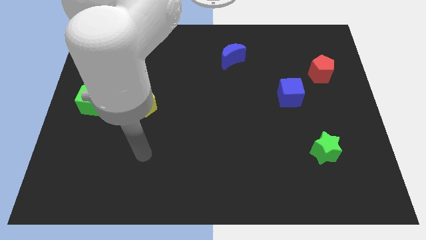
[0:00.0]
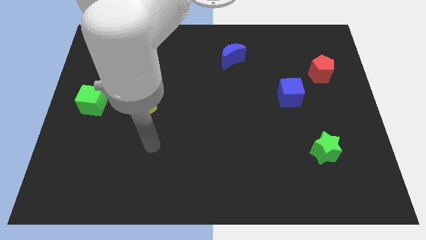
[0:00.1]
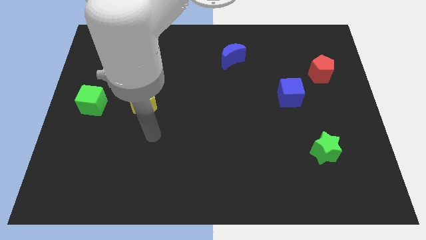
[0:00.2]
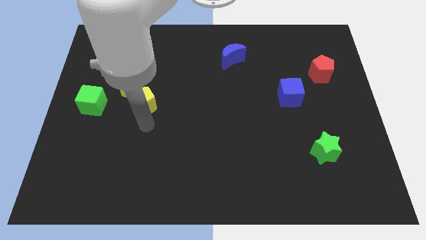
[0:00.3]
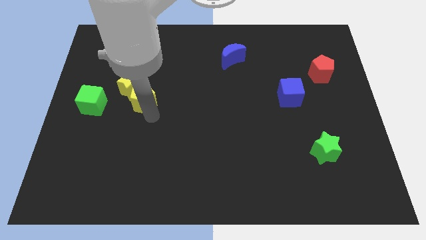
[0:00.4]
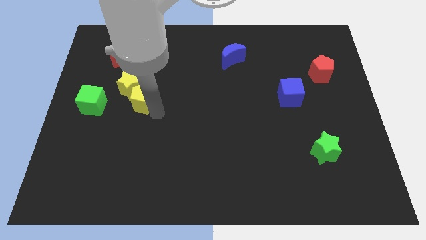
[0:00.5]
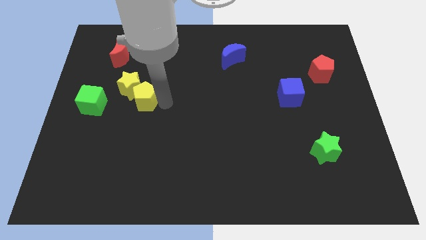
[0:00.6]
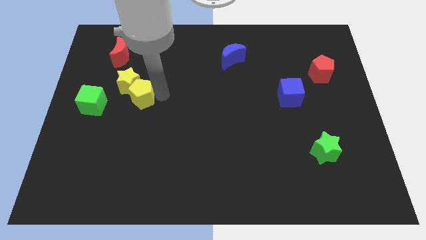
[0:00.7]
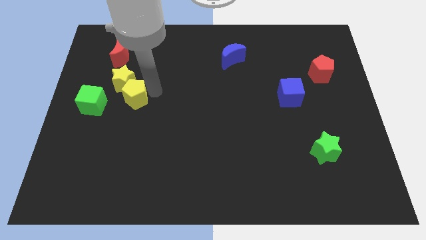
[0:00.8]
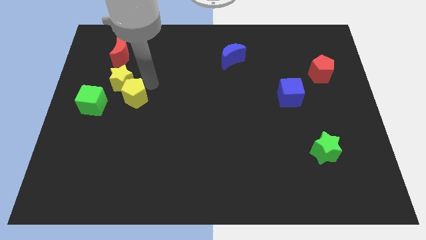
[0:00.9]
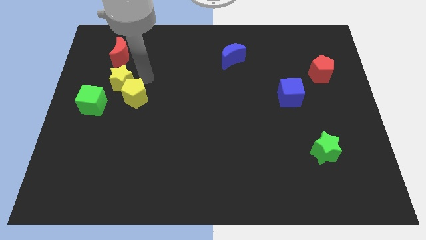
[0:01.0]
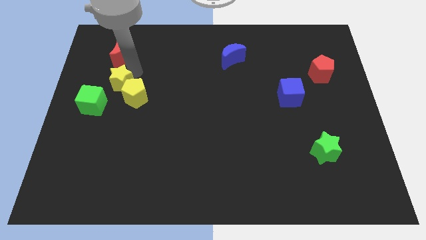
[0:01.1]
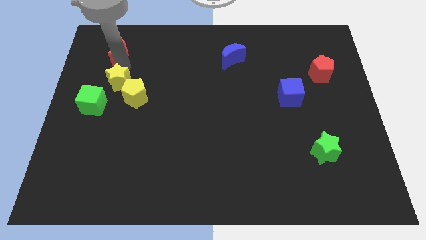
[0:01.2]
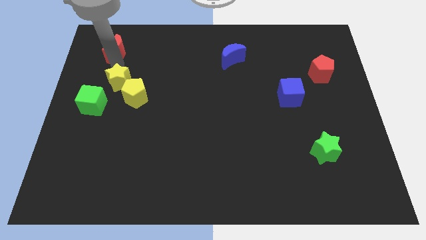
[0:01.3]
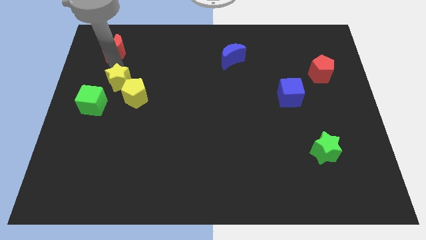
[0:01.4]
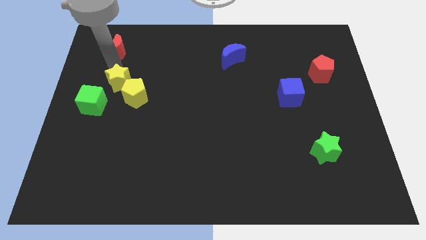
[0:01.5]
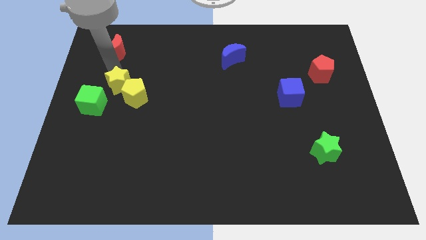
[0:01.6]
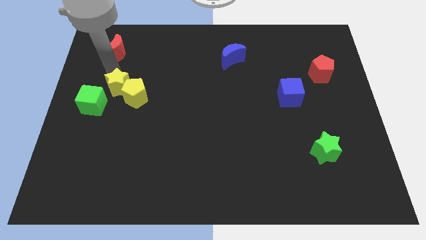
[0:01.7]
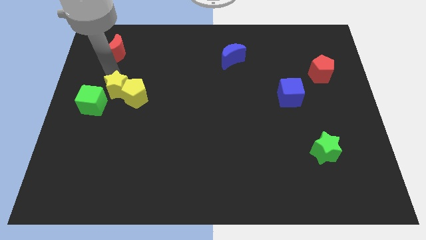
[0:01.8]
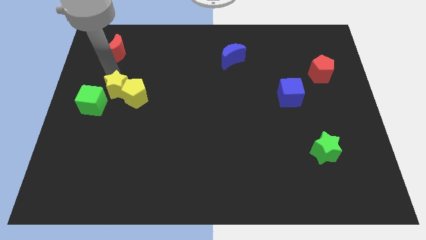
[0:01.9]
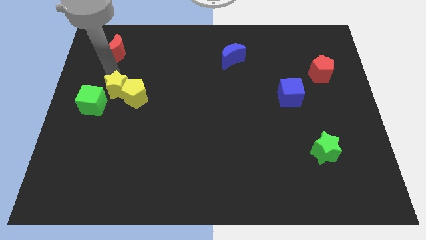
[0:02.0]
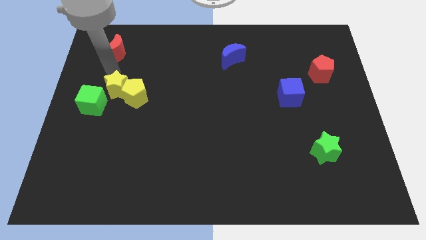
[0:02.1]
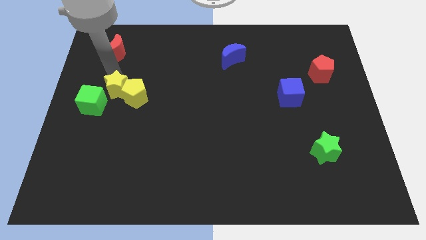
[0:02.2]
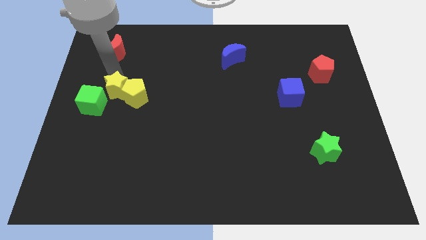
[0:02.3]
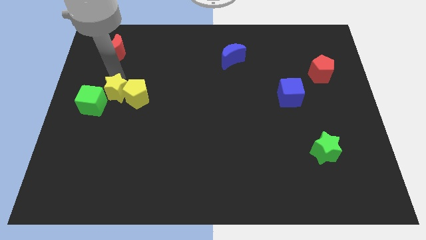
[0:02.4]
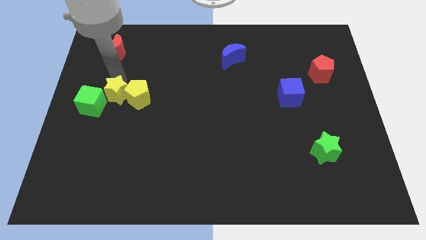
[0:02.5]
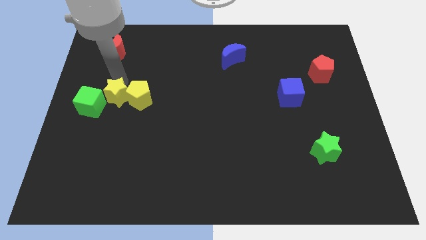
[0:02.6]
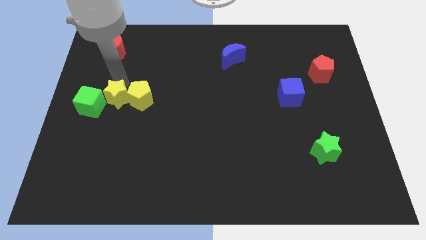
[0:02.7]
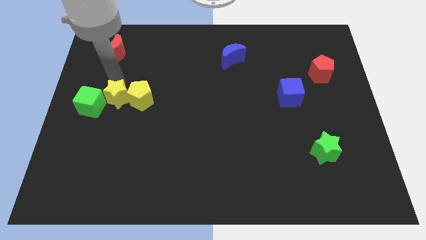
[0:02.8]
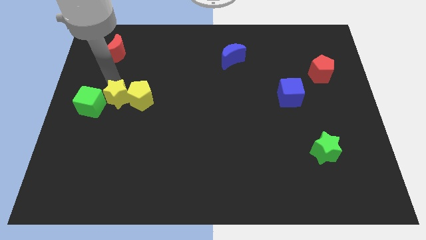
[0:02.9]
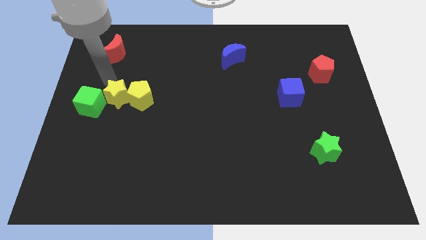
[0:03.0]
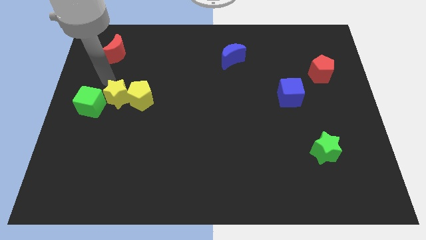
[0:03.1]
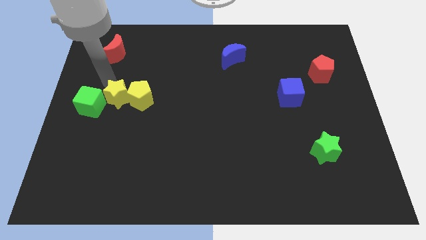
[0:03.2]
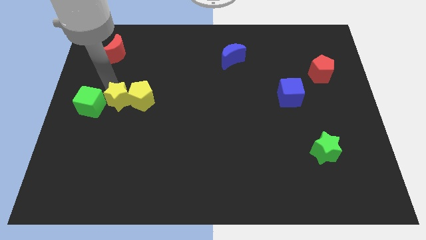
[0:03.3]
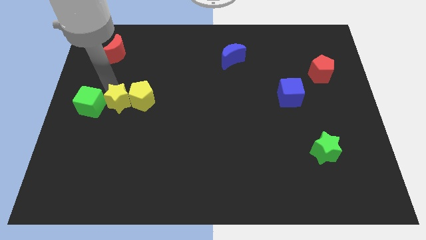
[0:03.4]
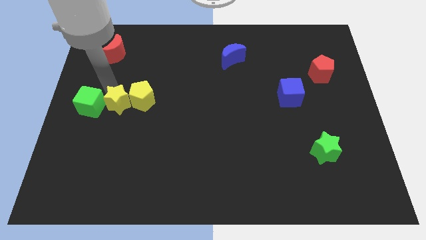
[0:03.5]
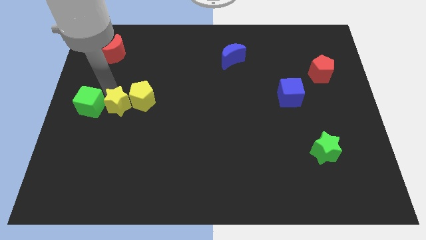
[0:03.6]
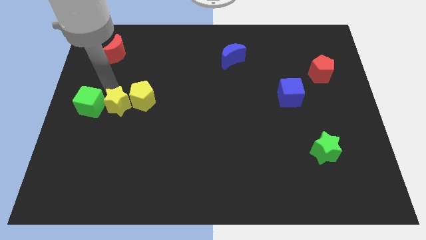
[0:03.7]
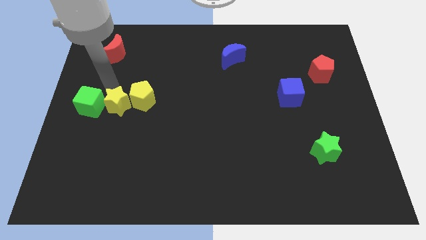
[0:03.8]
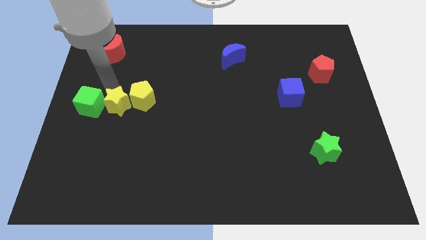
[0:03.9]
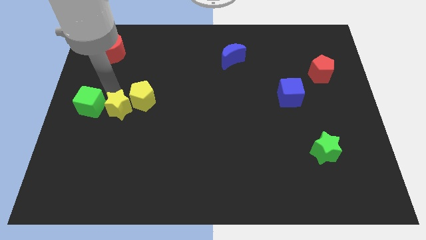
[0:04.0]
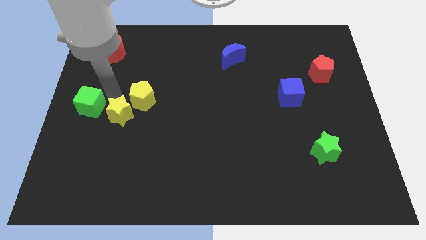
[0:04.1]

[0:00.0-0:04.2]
slightly push the yellow star downwards

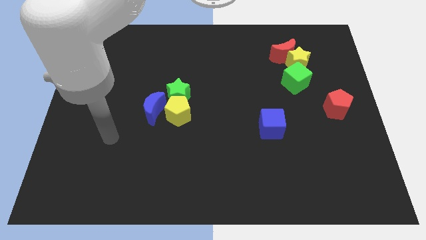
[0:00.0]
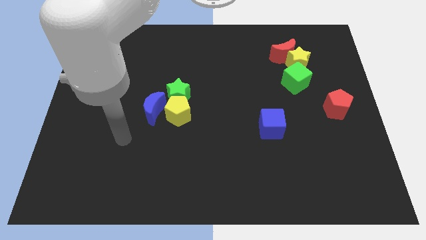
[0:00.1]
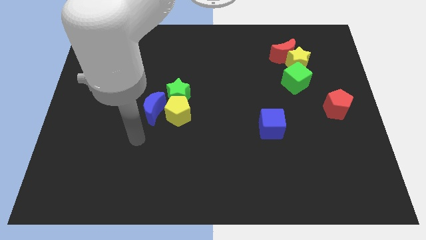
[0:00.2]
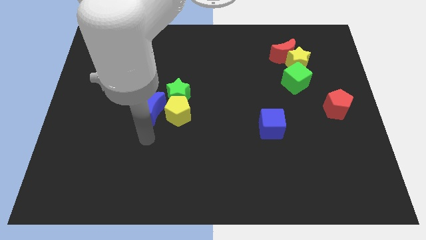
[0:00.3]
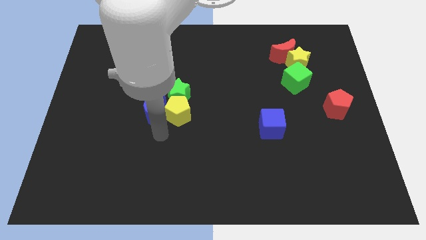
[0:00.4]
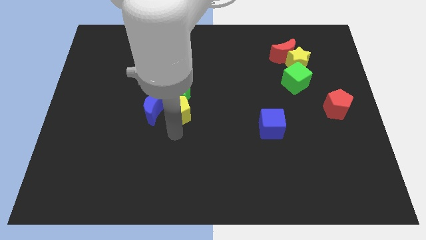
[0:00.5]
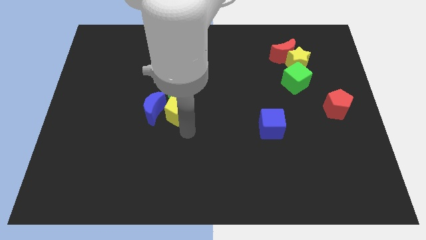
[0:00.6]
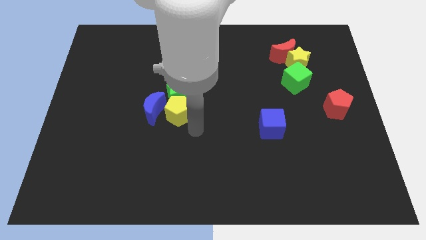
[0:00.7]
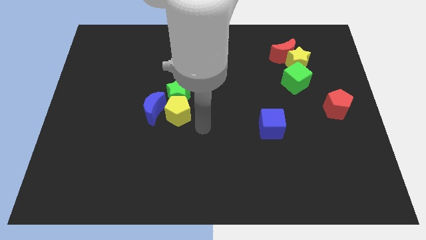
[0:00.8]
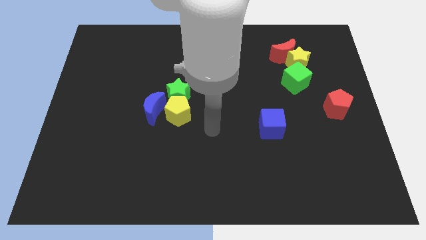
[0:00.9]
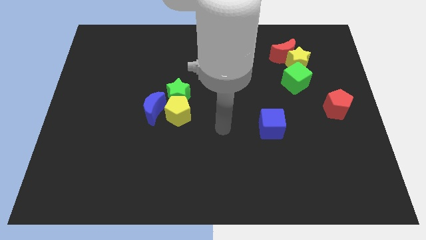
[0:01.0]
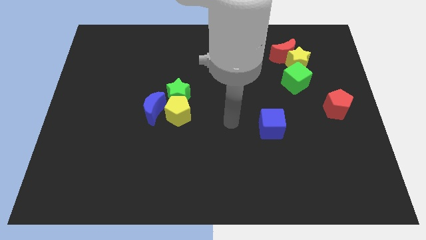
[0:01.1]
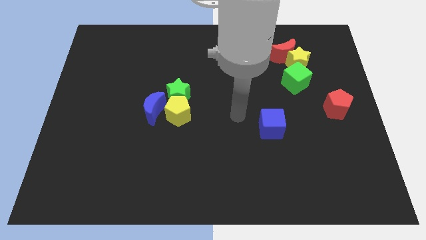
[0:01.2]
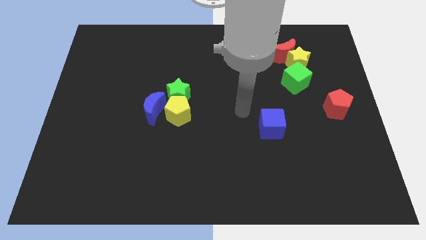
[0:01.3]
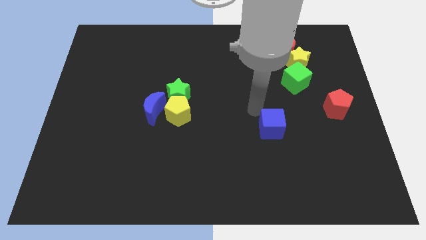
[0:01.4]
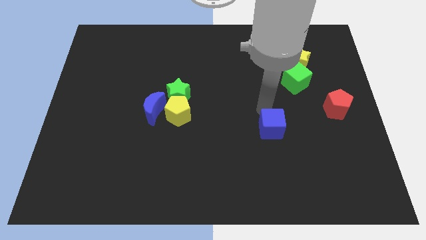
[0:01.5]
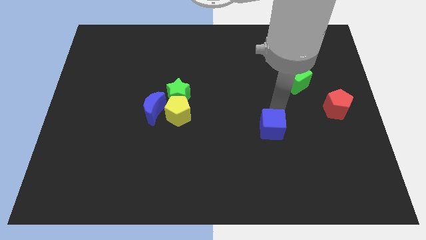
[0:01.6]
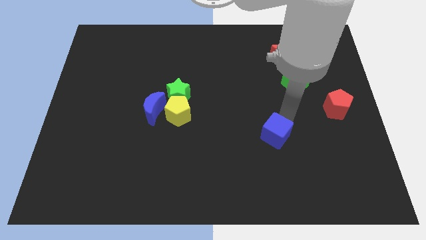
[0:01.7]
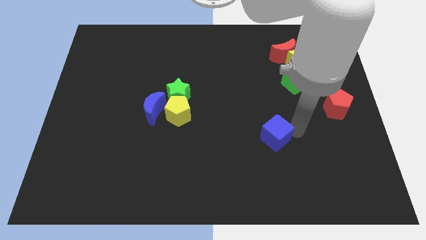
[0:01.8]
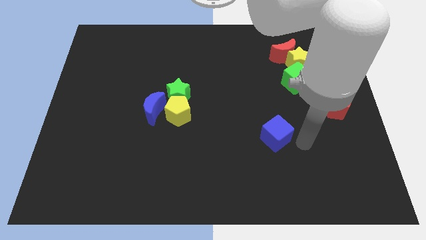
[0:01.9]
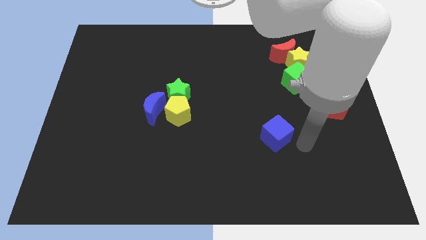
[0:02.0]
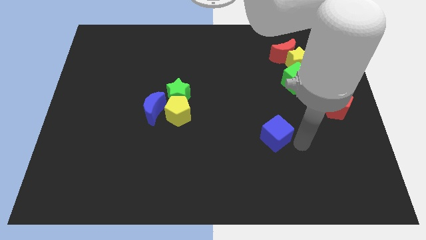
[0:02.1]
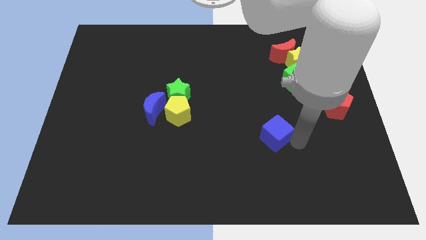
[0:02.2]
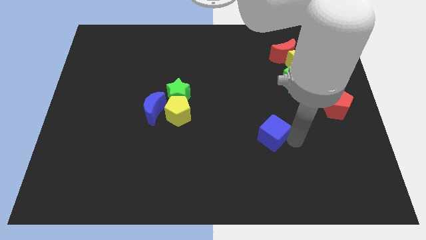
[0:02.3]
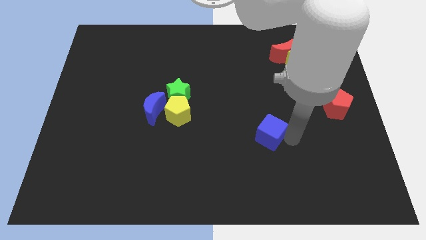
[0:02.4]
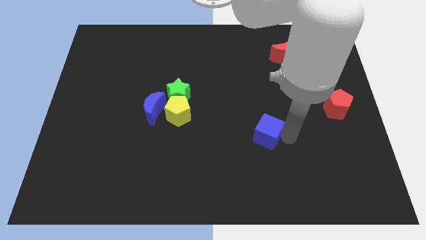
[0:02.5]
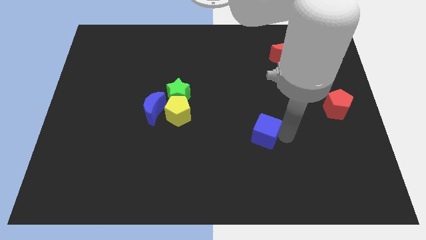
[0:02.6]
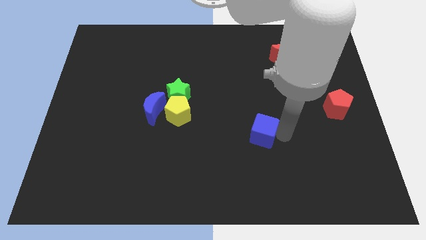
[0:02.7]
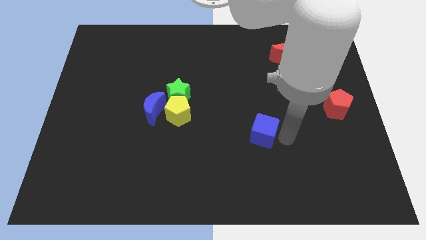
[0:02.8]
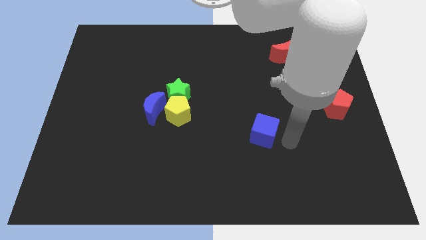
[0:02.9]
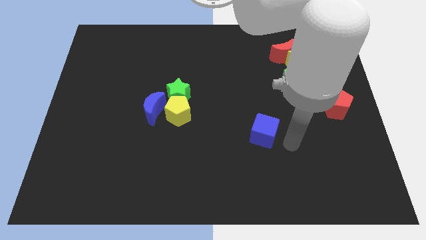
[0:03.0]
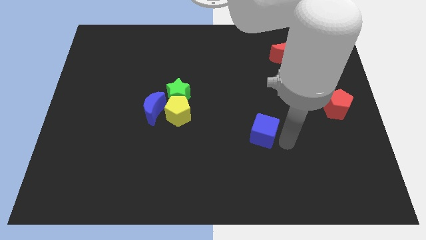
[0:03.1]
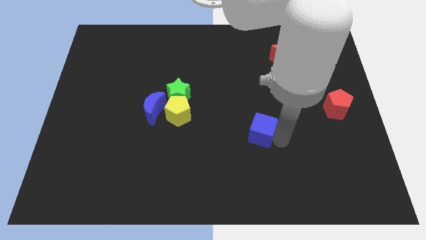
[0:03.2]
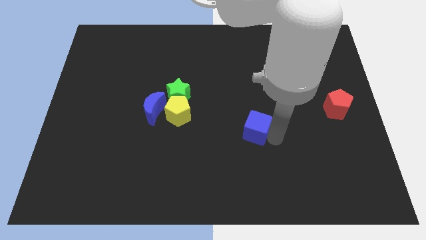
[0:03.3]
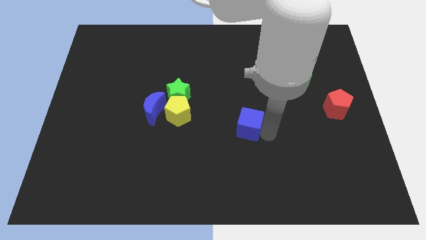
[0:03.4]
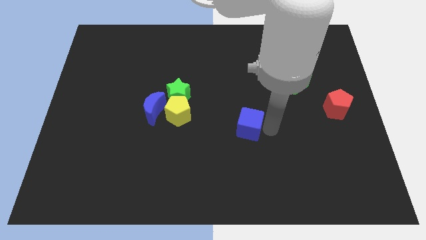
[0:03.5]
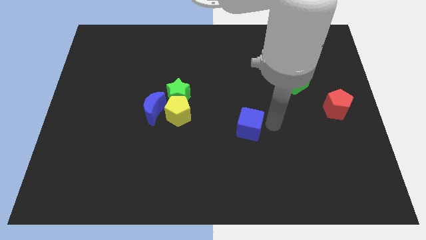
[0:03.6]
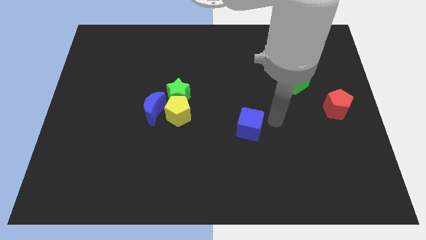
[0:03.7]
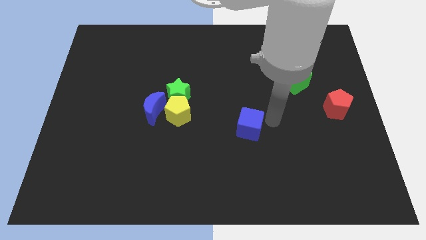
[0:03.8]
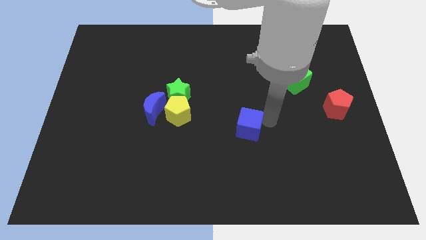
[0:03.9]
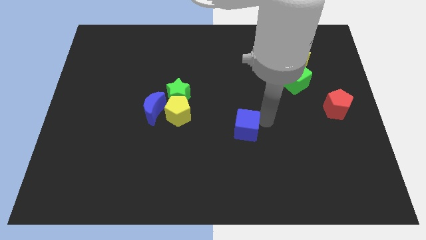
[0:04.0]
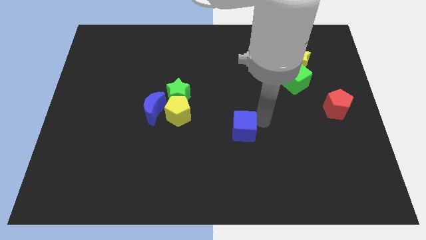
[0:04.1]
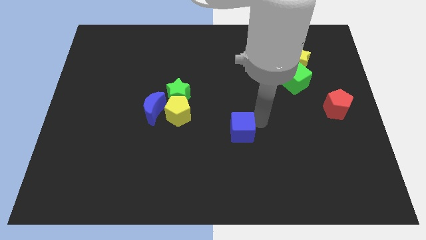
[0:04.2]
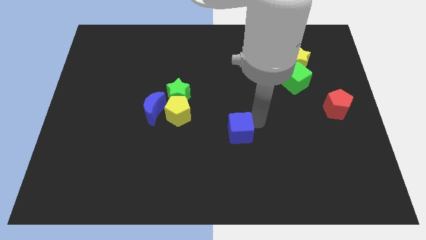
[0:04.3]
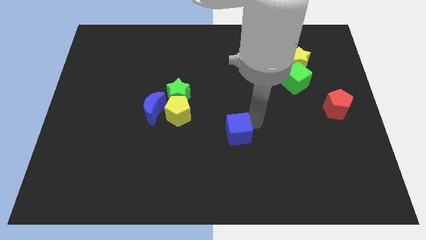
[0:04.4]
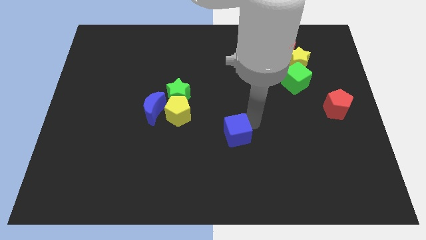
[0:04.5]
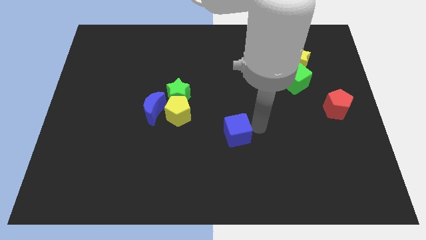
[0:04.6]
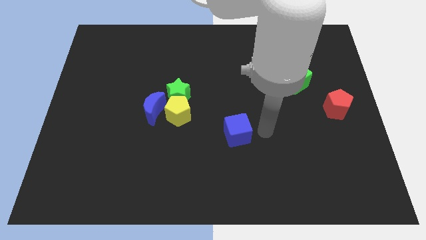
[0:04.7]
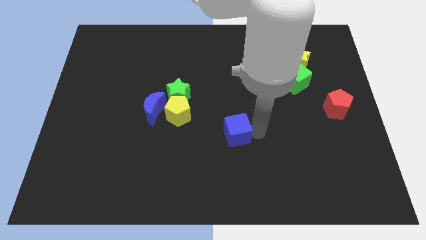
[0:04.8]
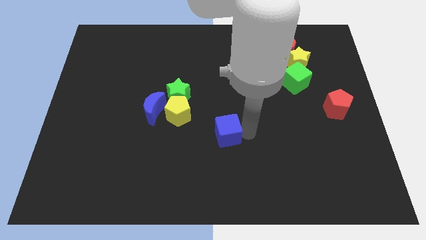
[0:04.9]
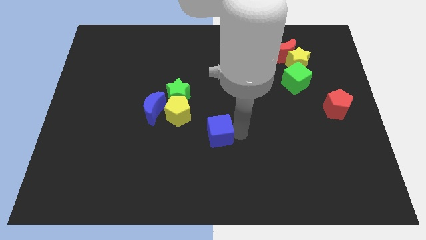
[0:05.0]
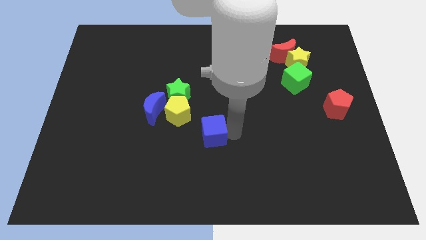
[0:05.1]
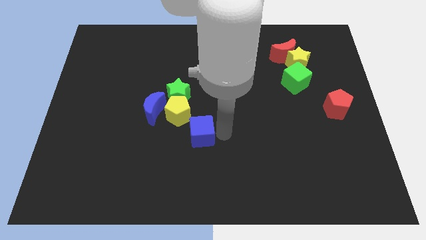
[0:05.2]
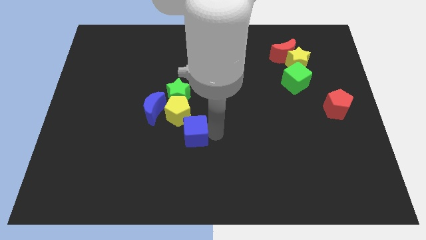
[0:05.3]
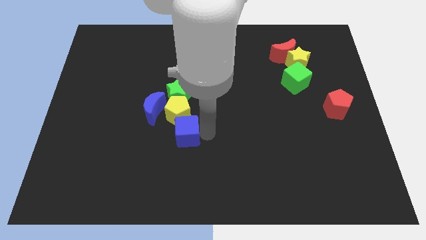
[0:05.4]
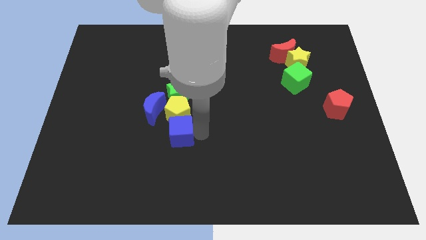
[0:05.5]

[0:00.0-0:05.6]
push the blue cube to the left
